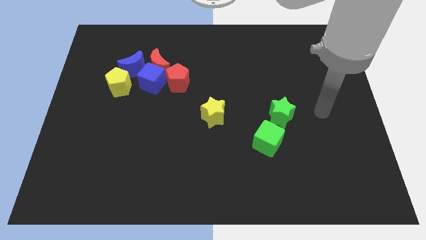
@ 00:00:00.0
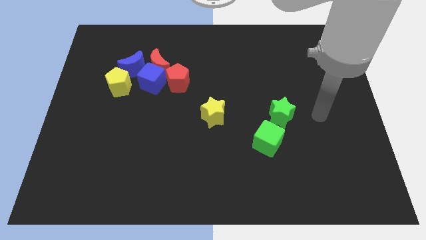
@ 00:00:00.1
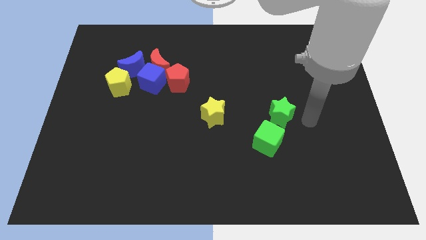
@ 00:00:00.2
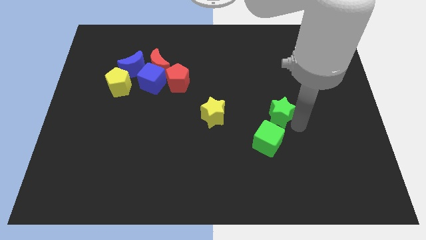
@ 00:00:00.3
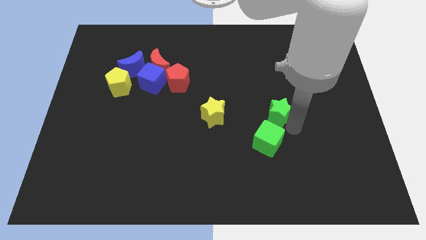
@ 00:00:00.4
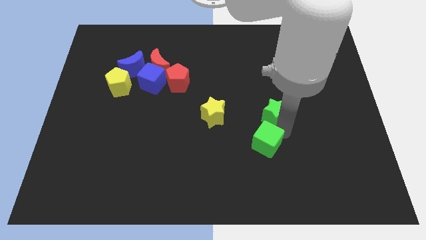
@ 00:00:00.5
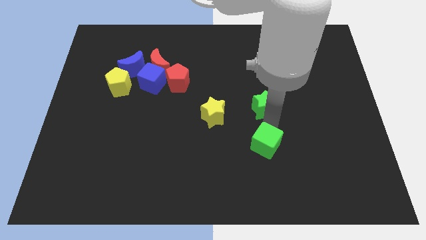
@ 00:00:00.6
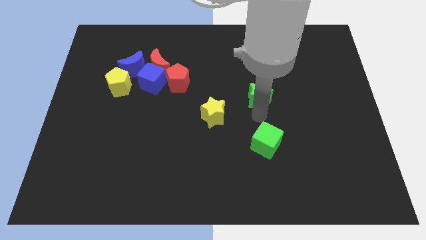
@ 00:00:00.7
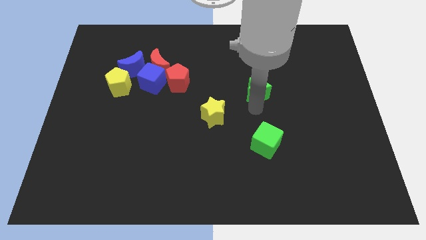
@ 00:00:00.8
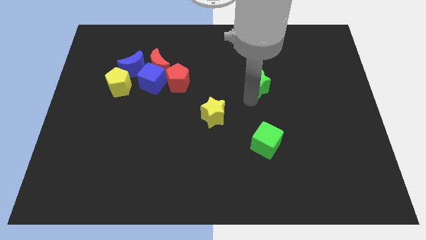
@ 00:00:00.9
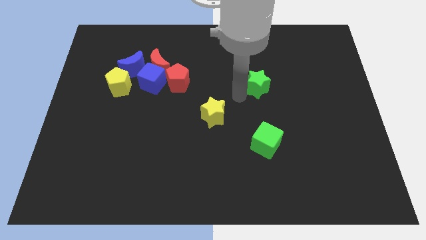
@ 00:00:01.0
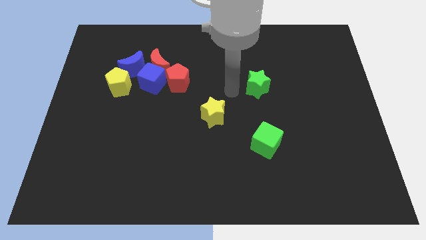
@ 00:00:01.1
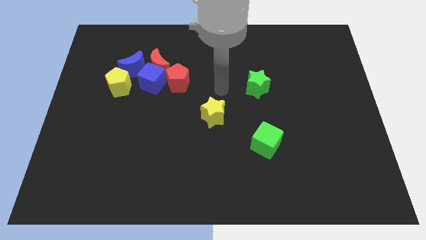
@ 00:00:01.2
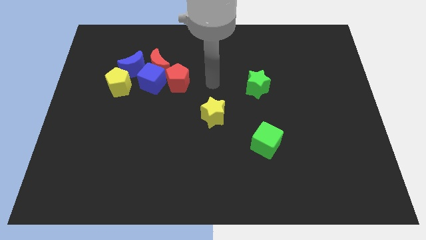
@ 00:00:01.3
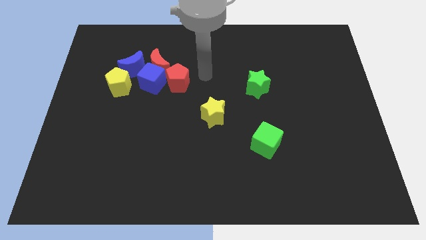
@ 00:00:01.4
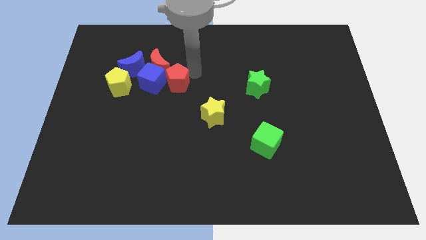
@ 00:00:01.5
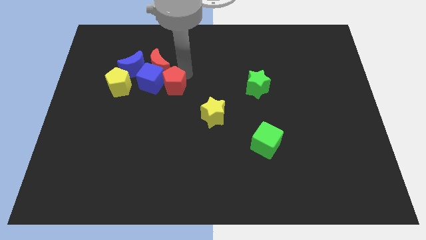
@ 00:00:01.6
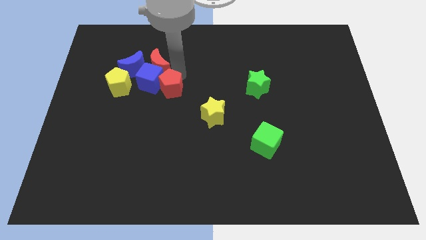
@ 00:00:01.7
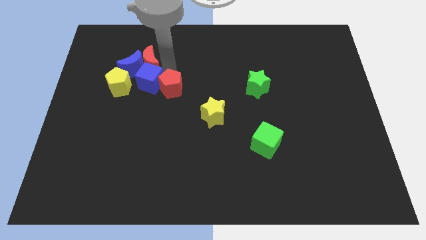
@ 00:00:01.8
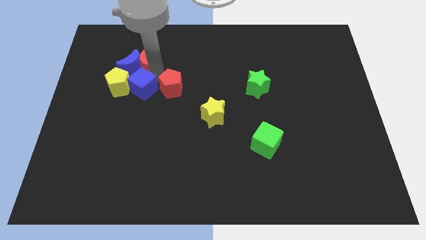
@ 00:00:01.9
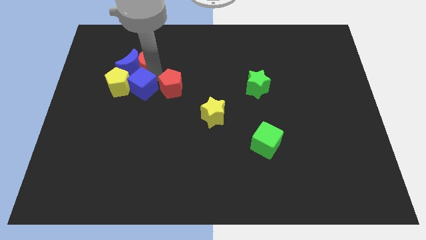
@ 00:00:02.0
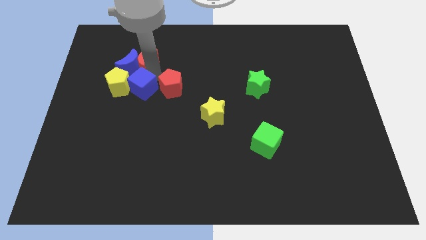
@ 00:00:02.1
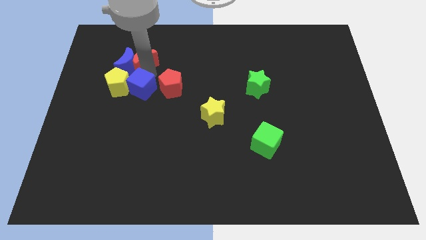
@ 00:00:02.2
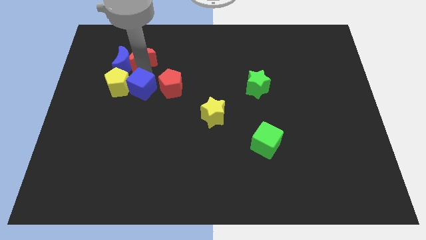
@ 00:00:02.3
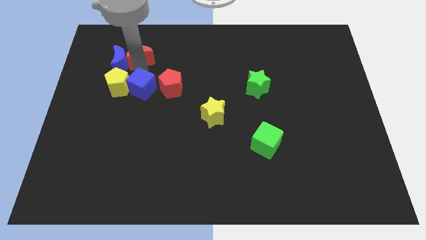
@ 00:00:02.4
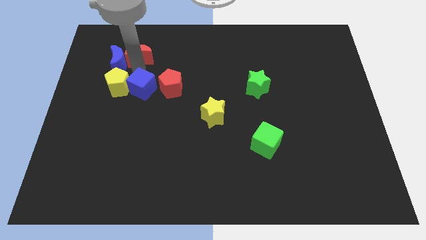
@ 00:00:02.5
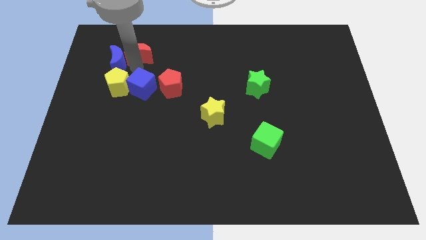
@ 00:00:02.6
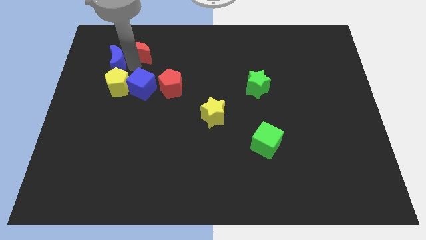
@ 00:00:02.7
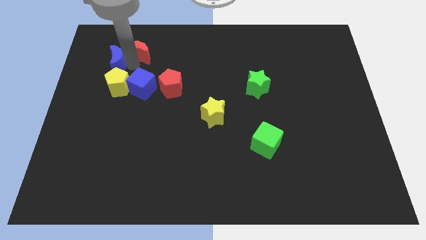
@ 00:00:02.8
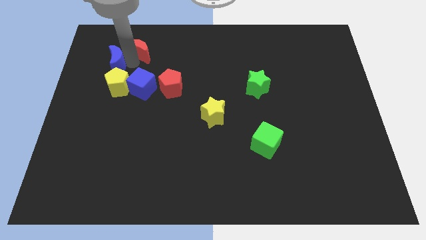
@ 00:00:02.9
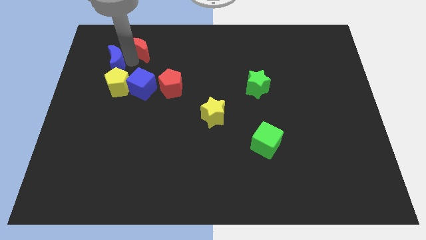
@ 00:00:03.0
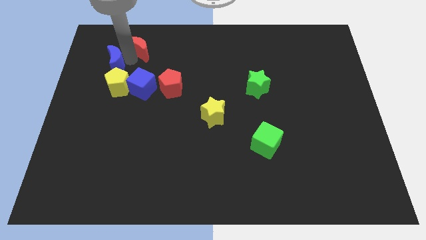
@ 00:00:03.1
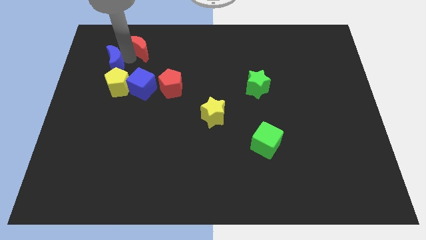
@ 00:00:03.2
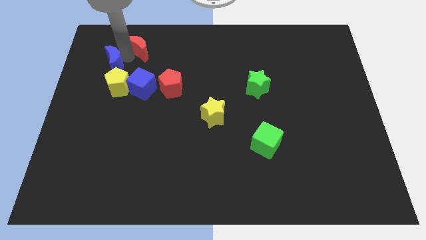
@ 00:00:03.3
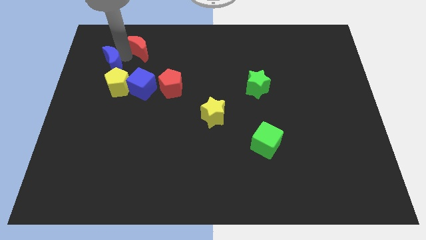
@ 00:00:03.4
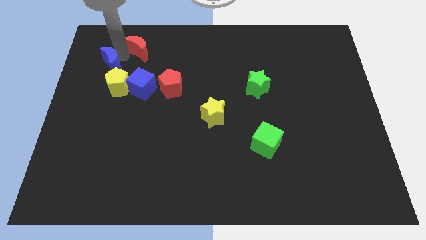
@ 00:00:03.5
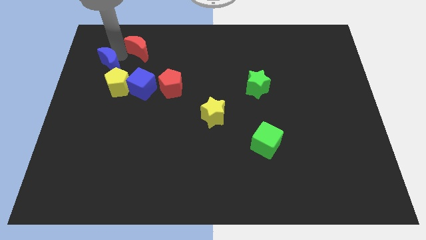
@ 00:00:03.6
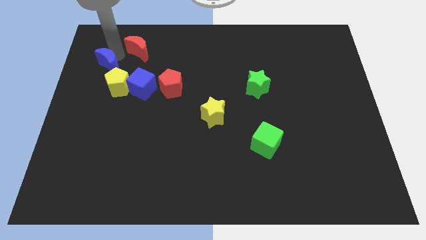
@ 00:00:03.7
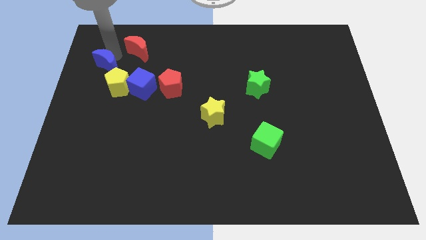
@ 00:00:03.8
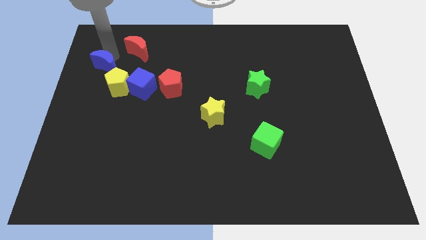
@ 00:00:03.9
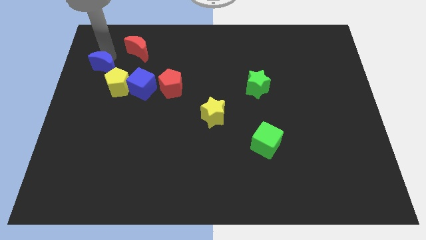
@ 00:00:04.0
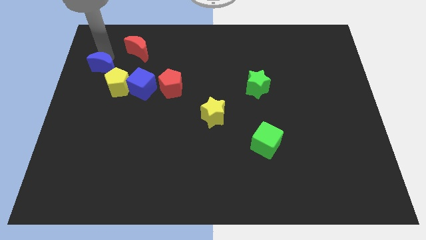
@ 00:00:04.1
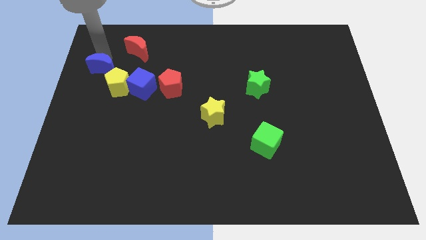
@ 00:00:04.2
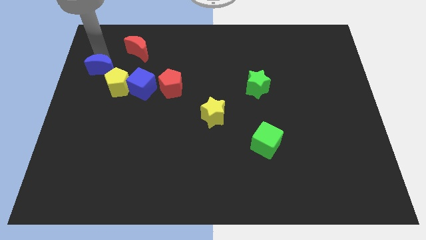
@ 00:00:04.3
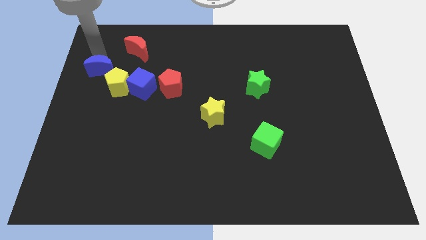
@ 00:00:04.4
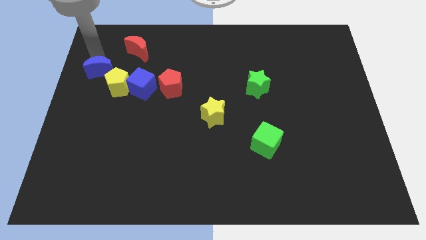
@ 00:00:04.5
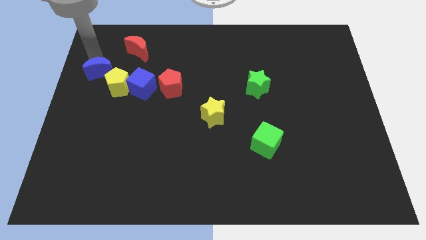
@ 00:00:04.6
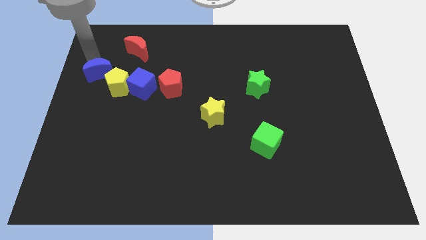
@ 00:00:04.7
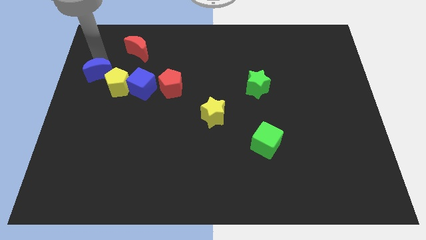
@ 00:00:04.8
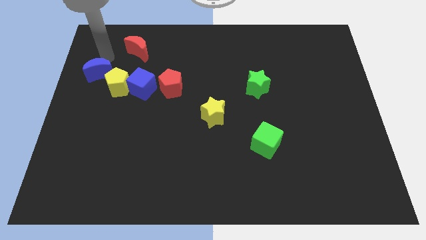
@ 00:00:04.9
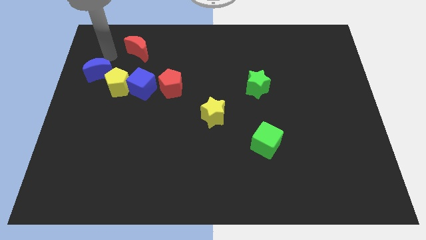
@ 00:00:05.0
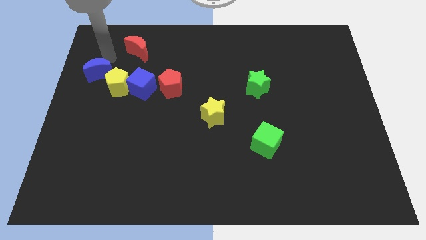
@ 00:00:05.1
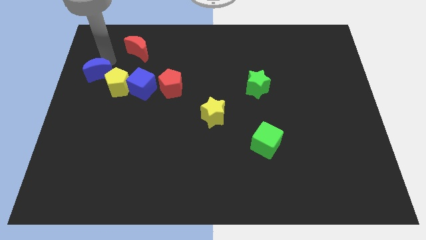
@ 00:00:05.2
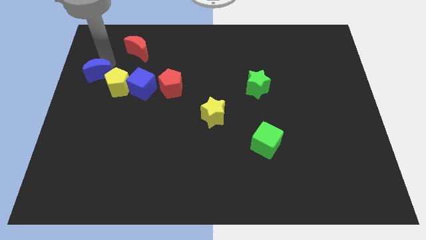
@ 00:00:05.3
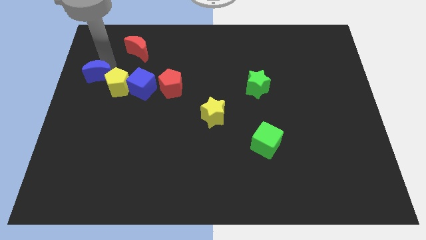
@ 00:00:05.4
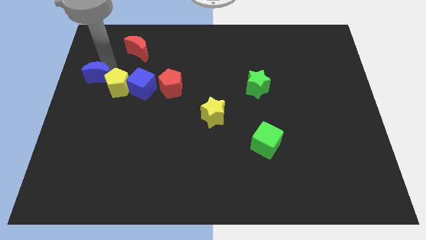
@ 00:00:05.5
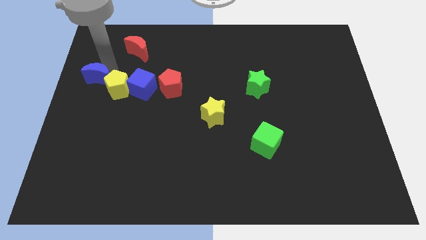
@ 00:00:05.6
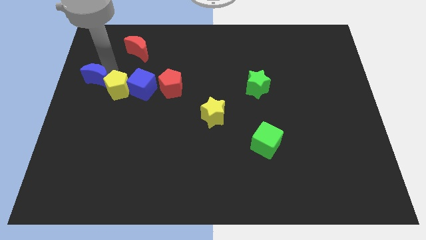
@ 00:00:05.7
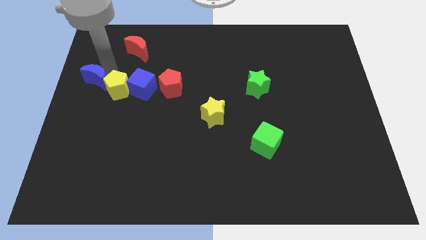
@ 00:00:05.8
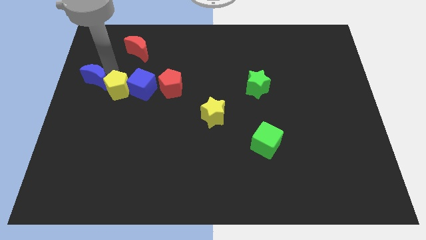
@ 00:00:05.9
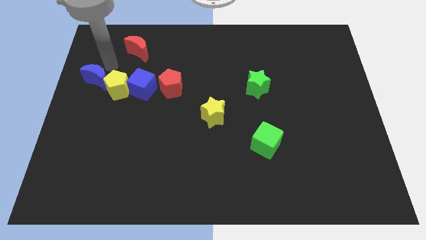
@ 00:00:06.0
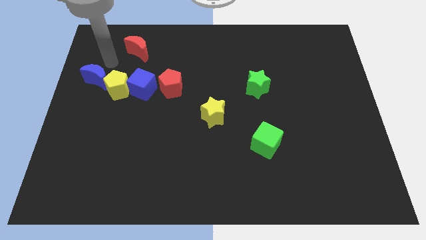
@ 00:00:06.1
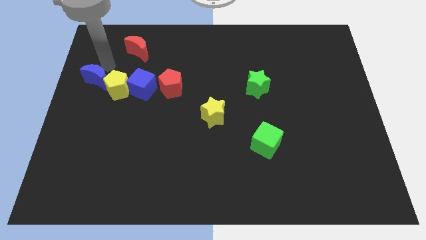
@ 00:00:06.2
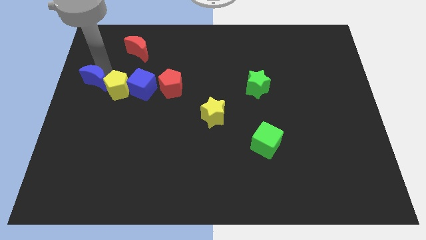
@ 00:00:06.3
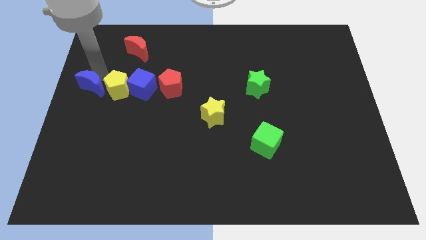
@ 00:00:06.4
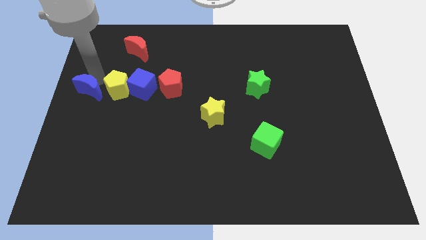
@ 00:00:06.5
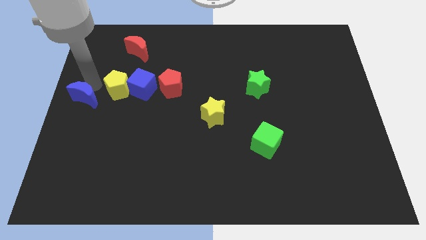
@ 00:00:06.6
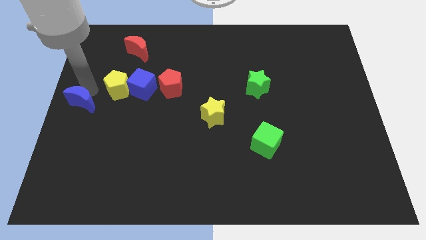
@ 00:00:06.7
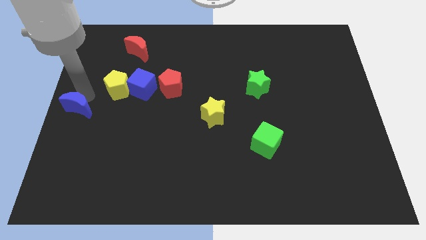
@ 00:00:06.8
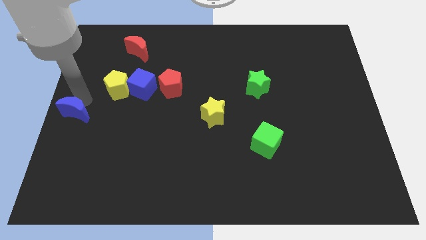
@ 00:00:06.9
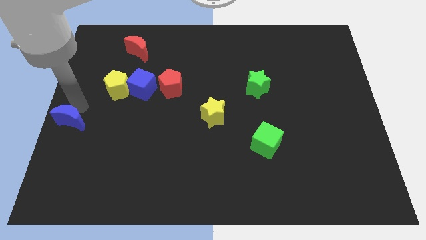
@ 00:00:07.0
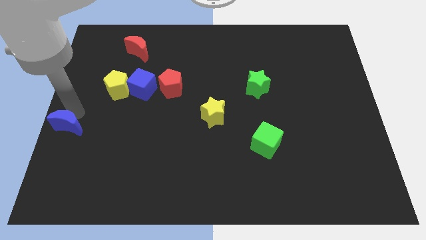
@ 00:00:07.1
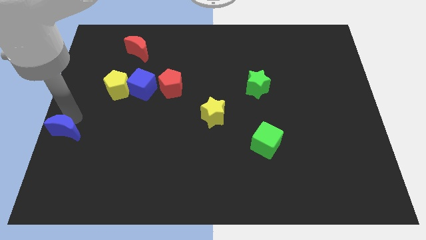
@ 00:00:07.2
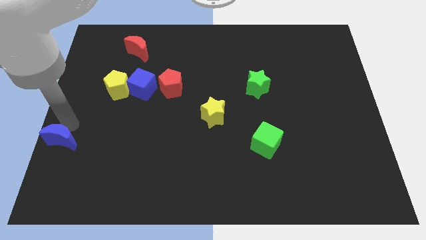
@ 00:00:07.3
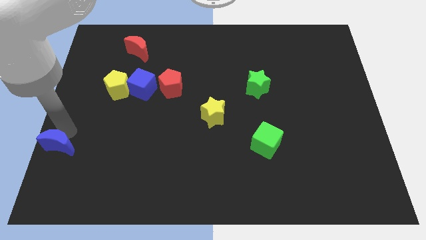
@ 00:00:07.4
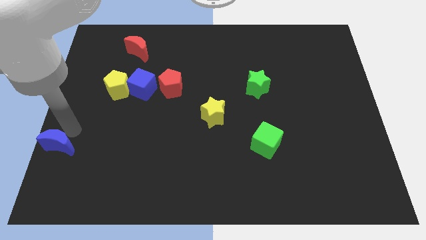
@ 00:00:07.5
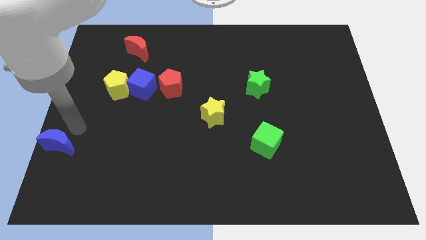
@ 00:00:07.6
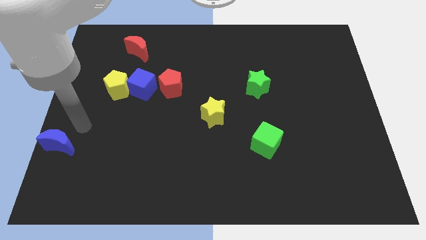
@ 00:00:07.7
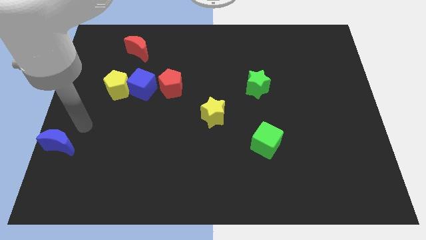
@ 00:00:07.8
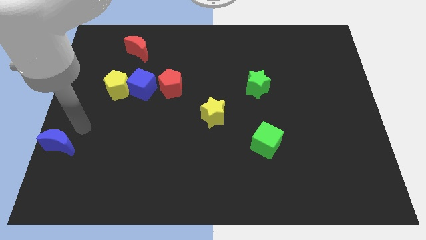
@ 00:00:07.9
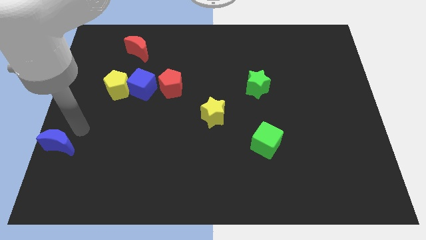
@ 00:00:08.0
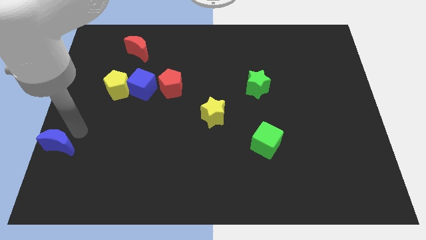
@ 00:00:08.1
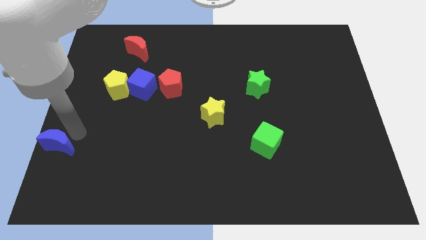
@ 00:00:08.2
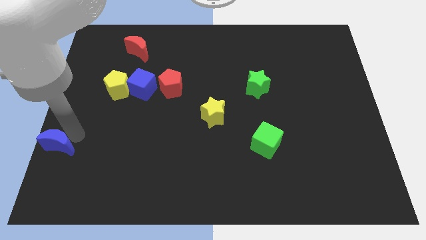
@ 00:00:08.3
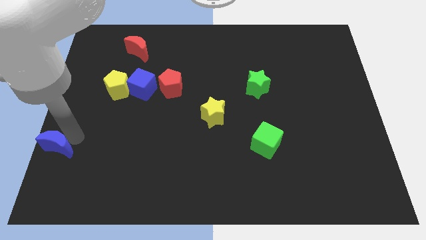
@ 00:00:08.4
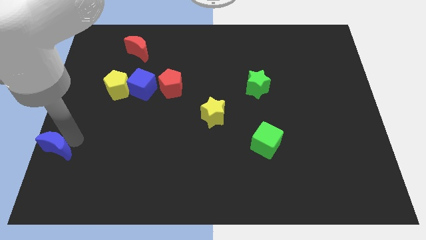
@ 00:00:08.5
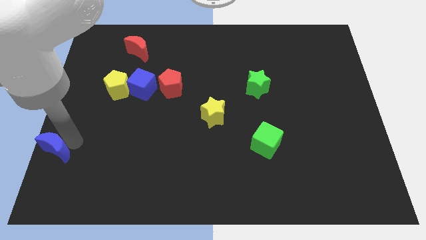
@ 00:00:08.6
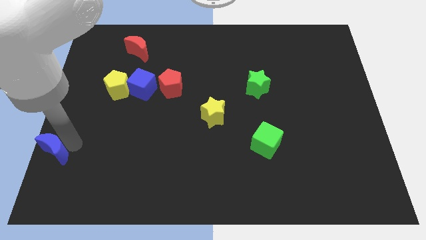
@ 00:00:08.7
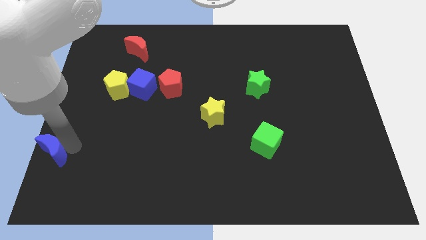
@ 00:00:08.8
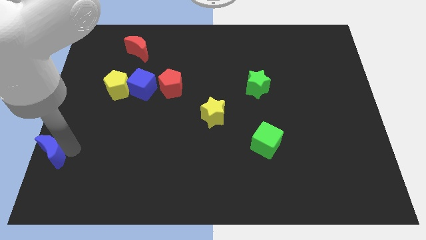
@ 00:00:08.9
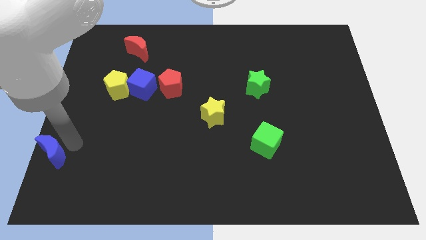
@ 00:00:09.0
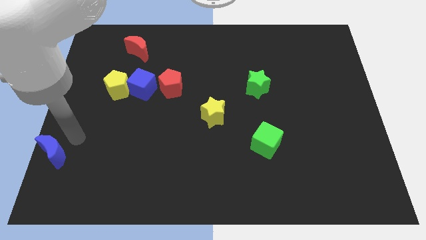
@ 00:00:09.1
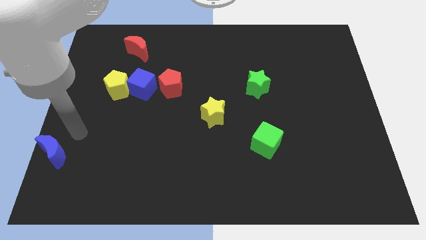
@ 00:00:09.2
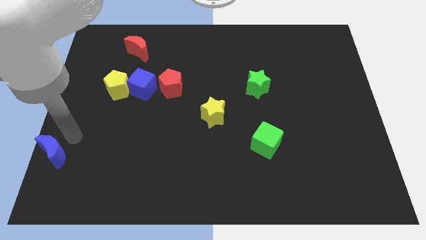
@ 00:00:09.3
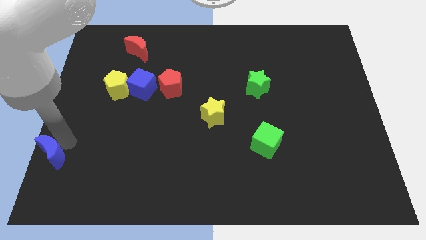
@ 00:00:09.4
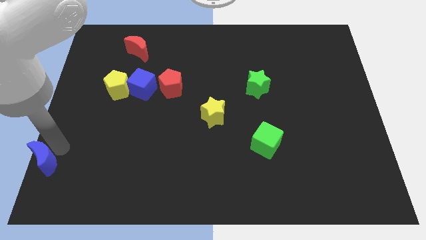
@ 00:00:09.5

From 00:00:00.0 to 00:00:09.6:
move the blue moon to the bottom left
